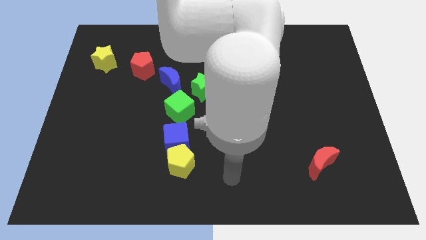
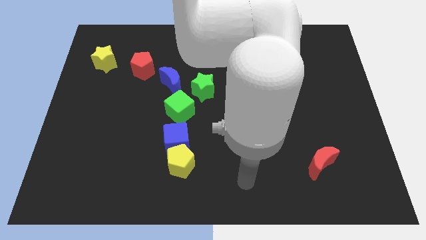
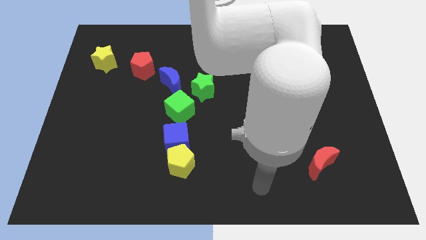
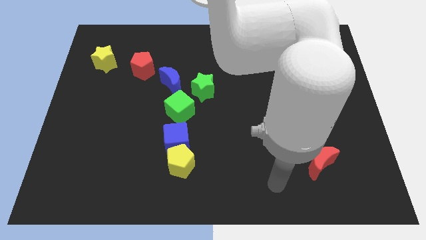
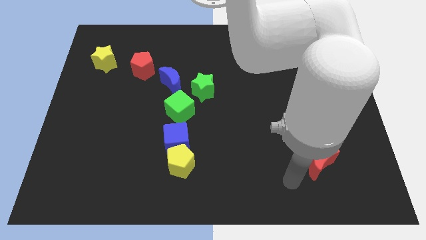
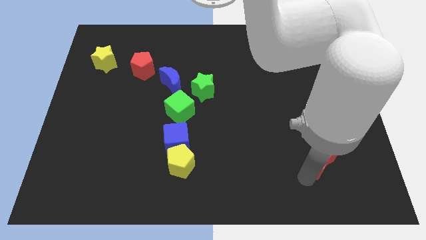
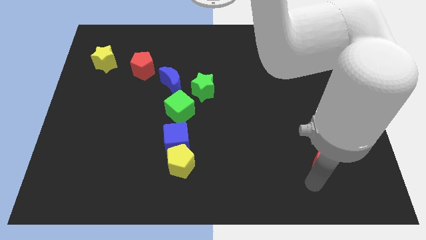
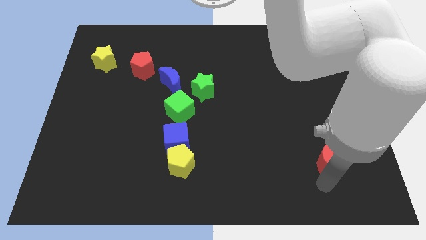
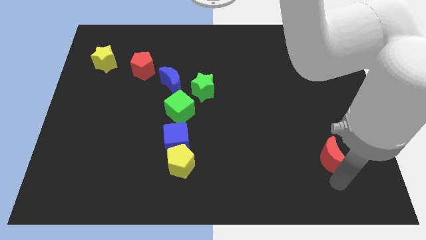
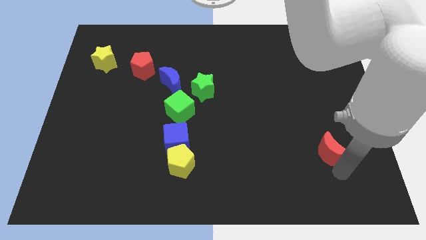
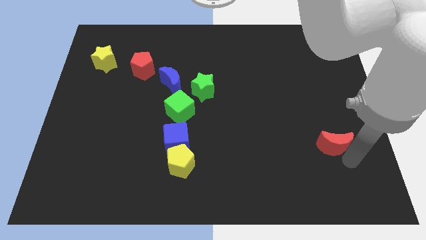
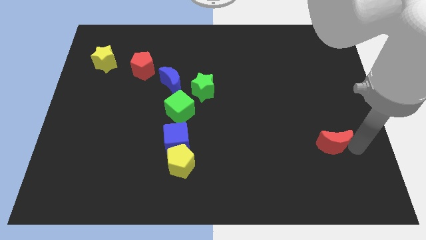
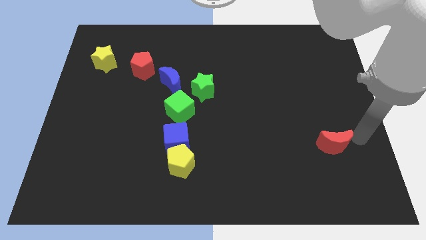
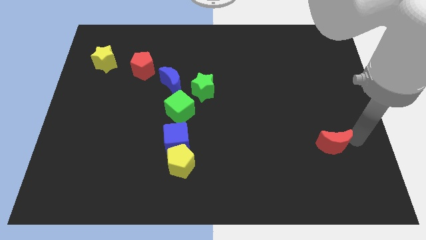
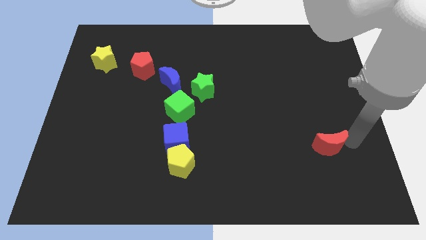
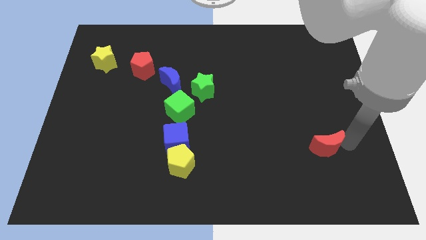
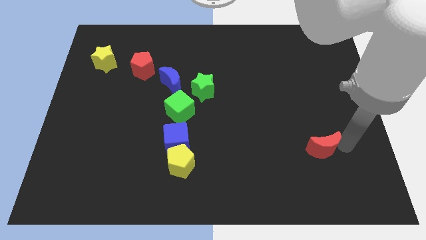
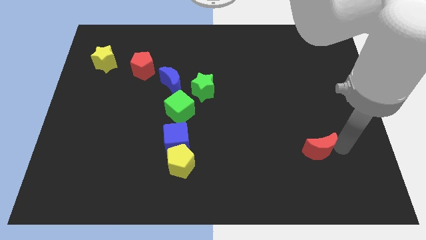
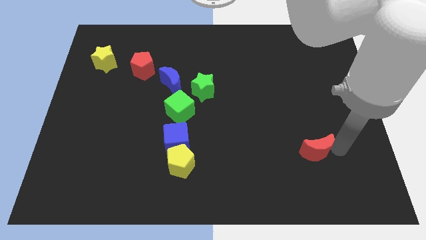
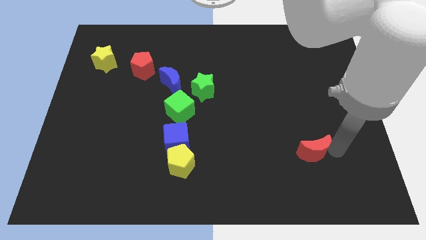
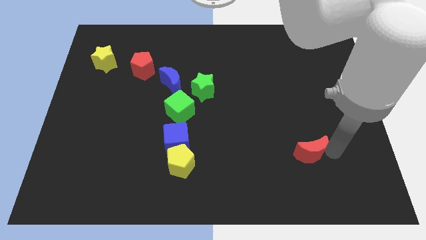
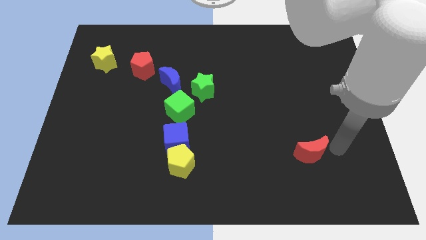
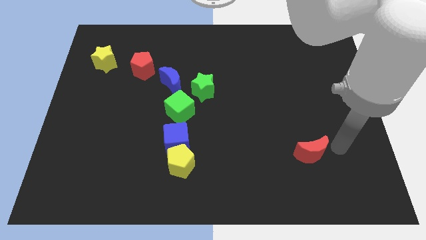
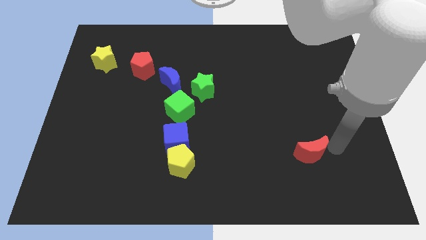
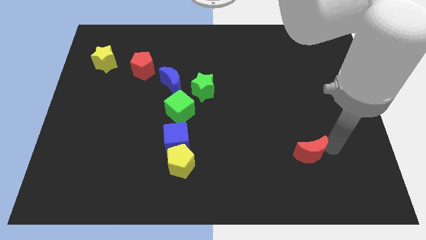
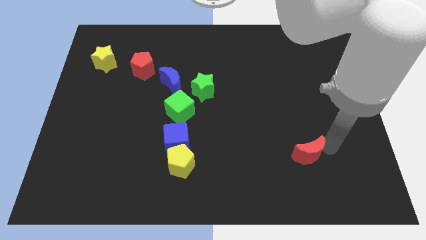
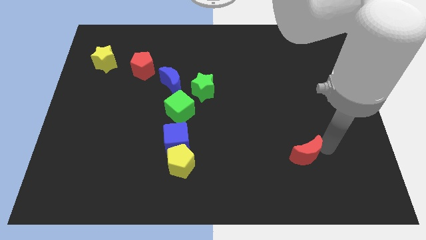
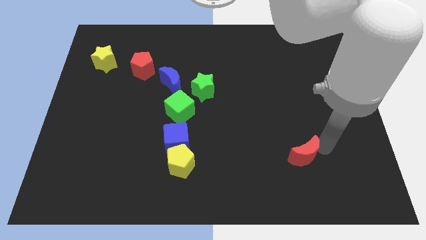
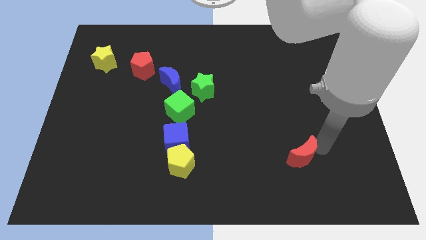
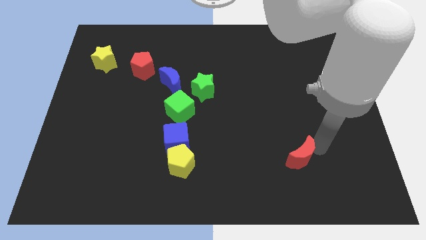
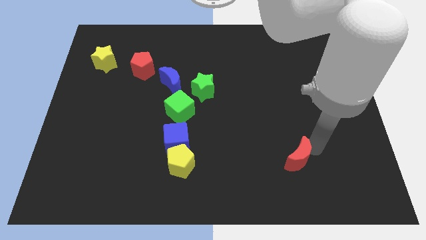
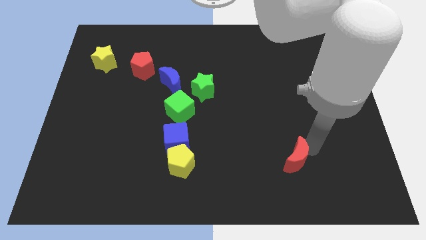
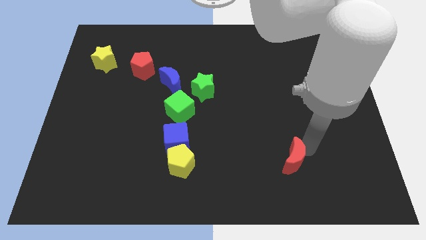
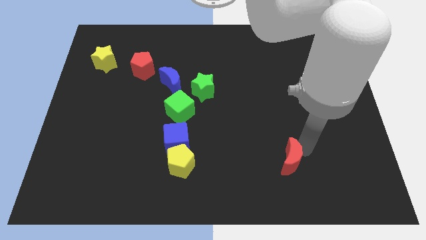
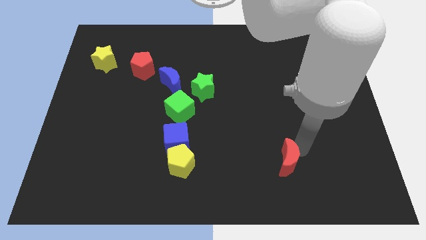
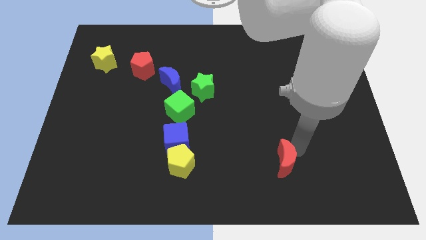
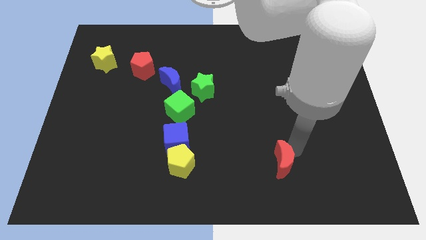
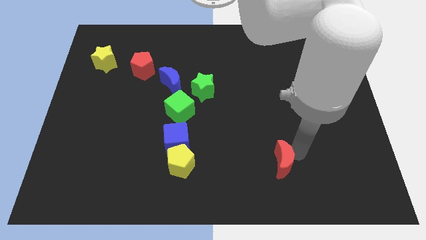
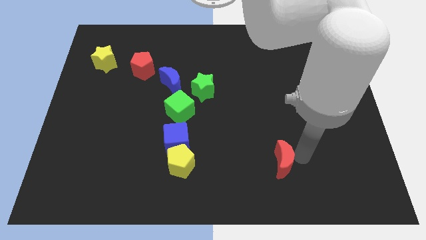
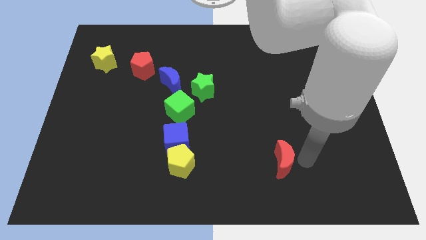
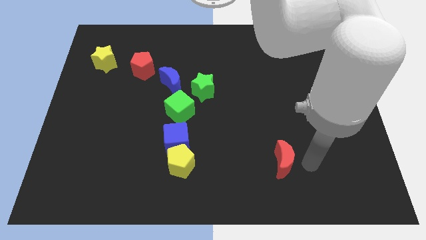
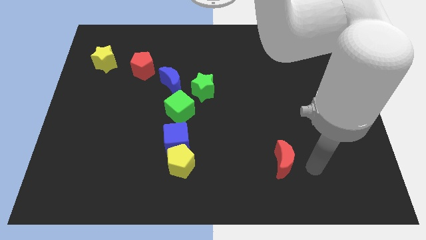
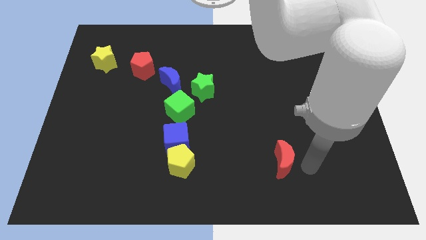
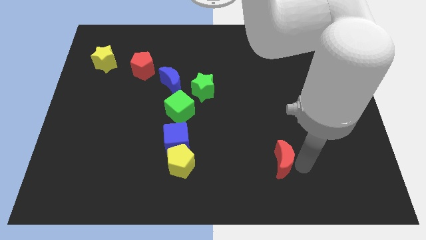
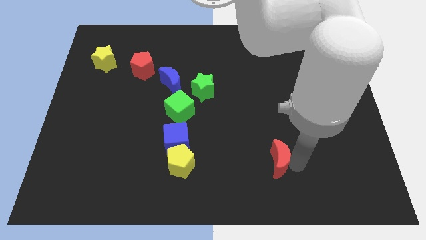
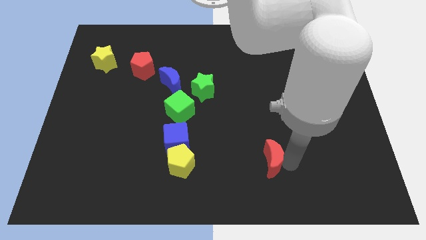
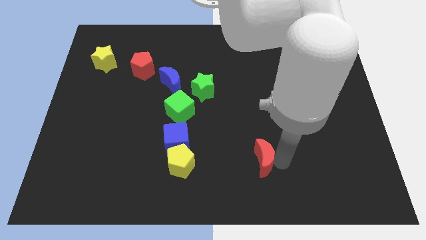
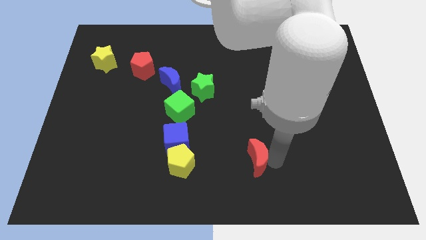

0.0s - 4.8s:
move the red moon to the right side of the yellow pentagon

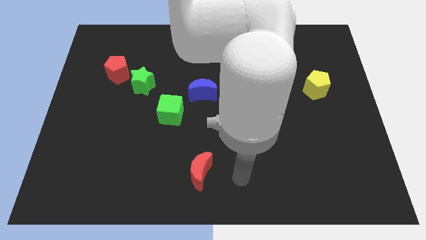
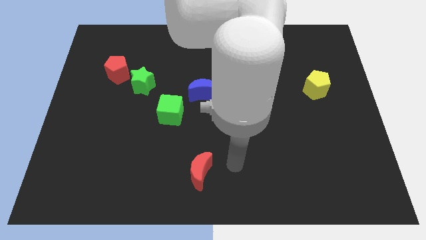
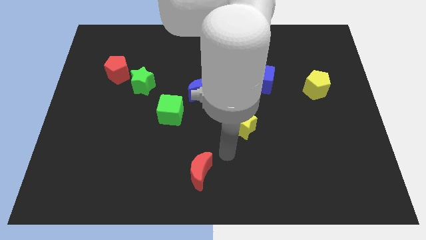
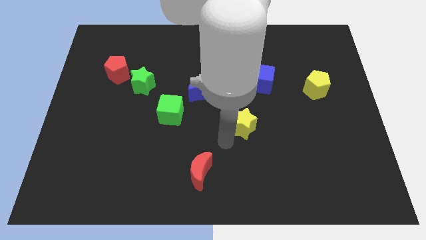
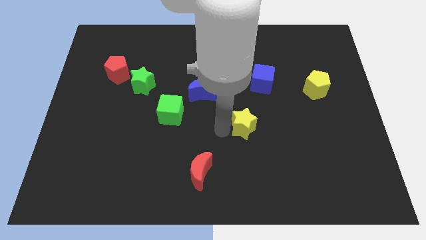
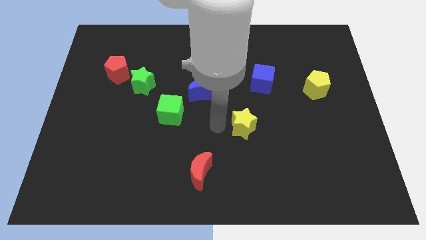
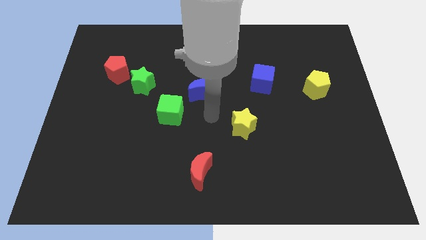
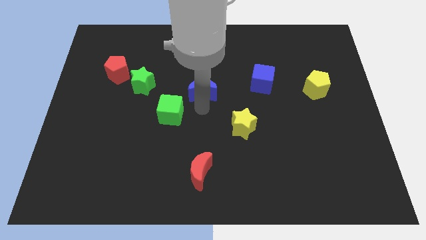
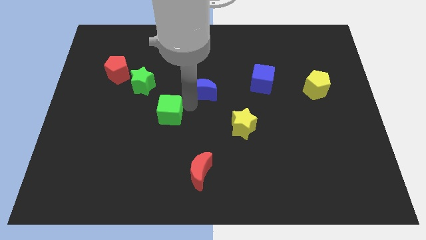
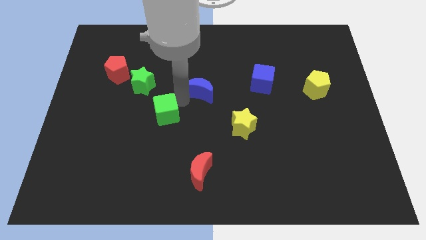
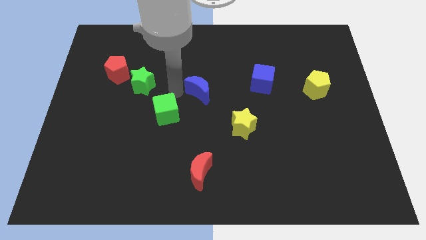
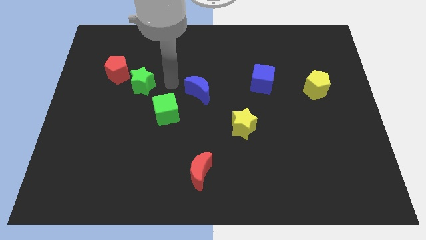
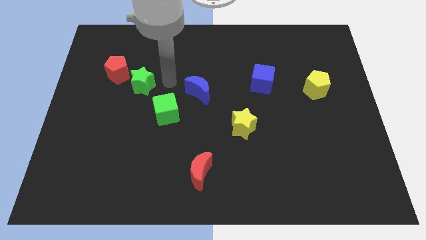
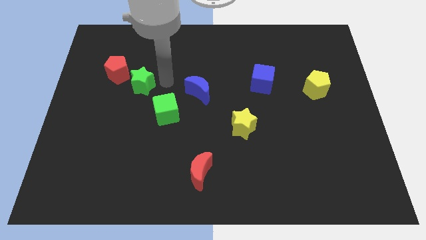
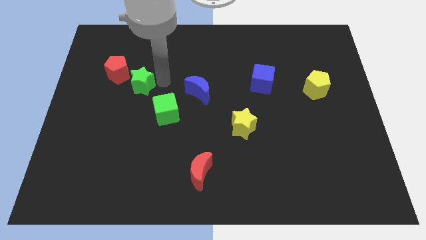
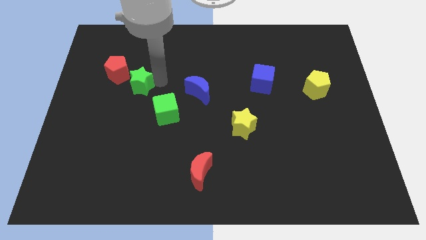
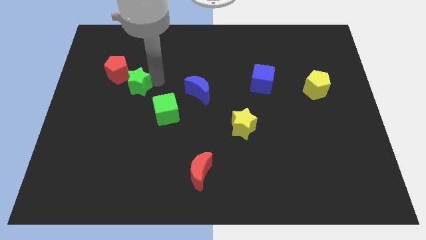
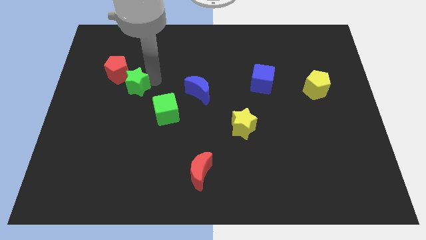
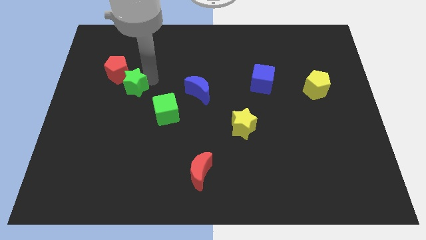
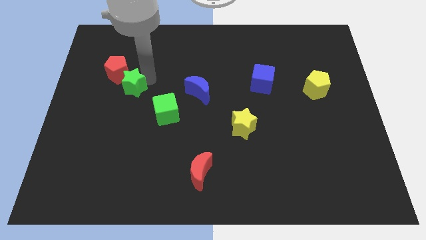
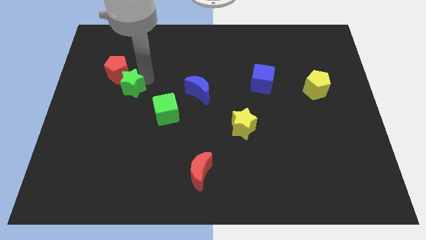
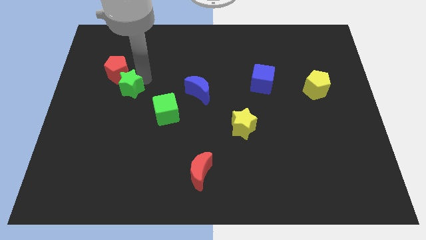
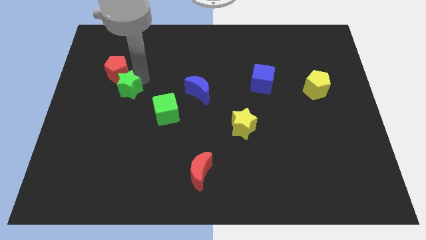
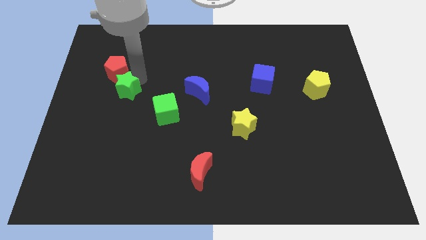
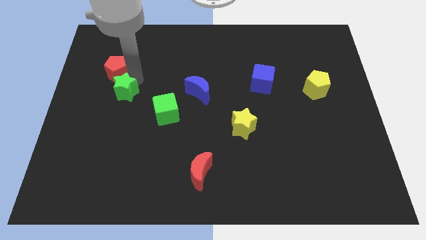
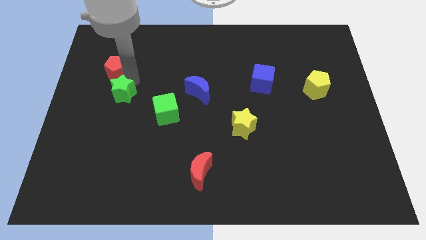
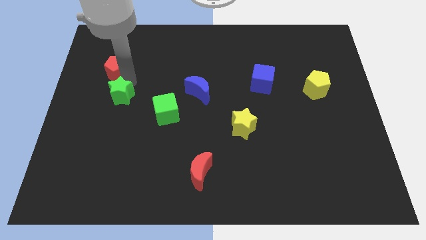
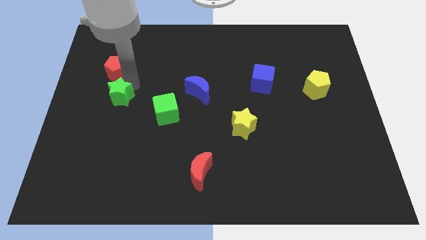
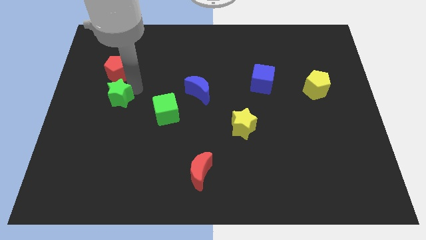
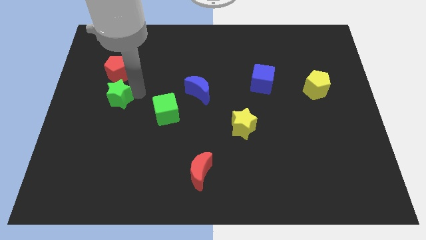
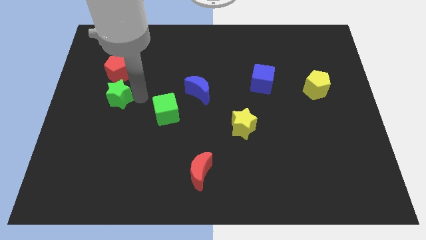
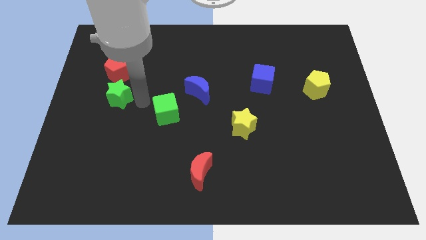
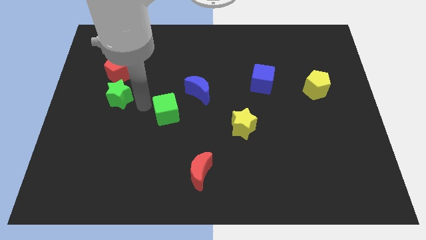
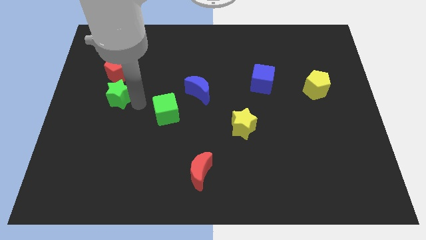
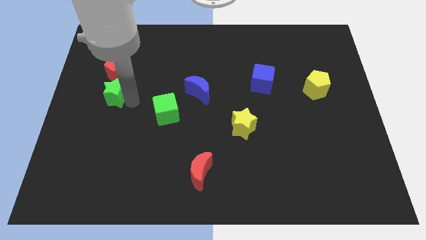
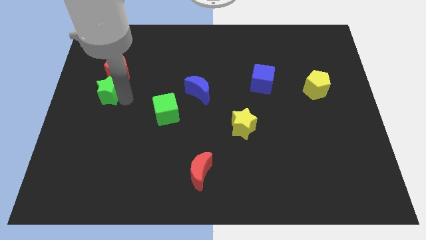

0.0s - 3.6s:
move the green star diagonally down and to the left of the red pentagon
